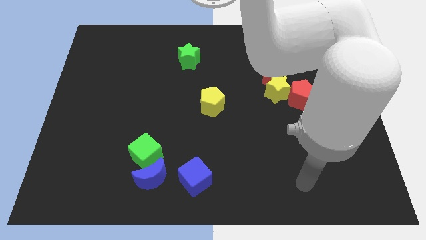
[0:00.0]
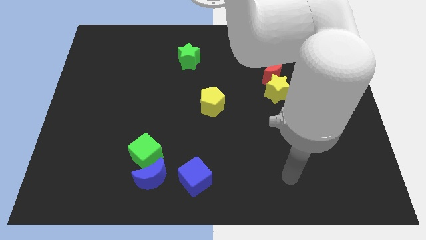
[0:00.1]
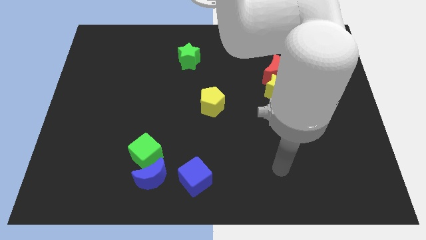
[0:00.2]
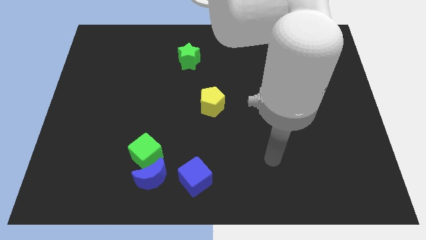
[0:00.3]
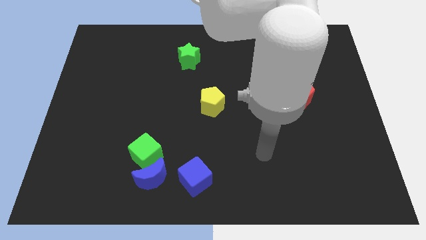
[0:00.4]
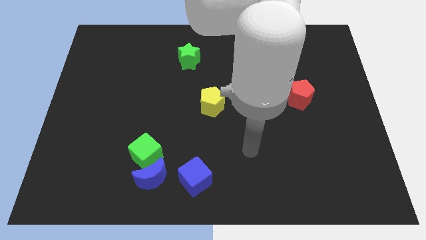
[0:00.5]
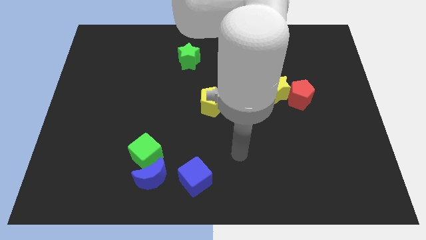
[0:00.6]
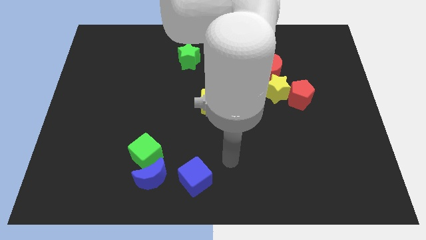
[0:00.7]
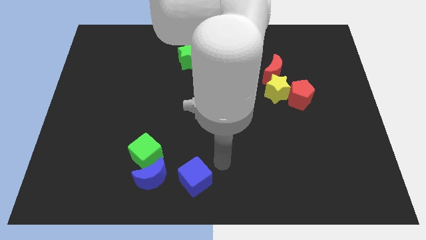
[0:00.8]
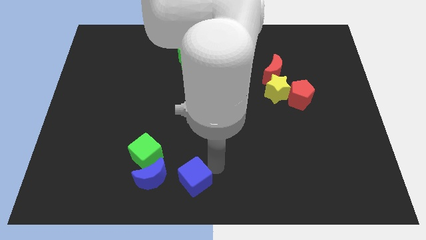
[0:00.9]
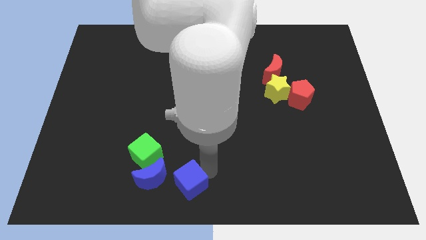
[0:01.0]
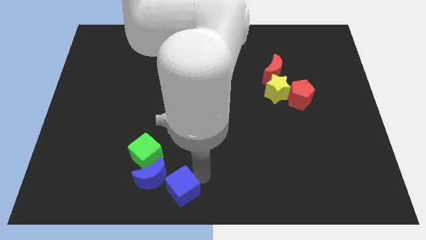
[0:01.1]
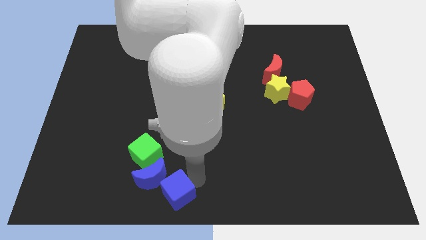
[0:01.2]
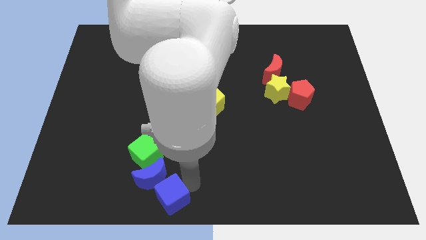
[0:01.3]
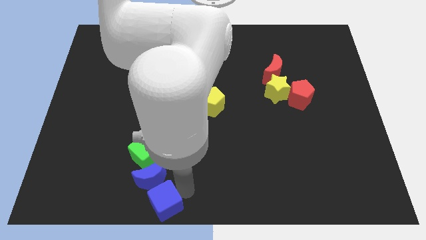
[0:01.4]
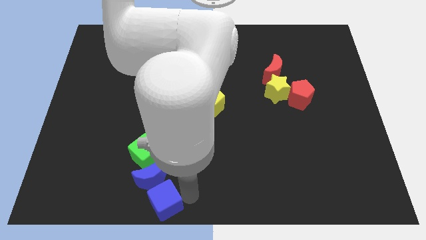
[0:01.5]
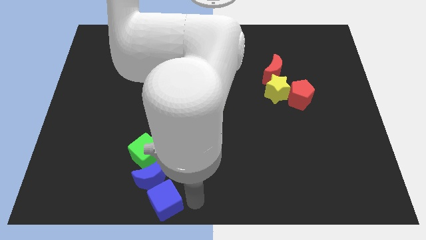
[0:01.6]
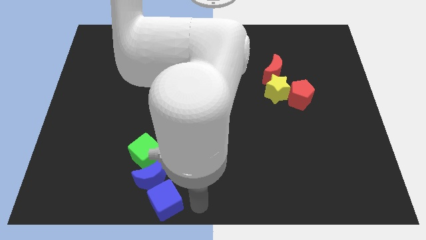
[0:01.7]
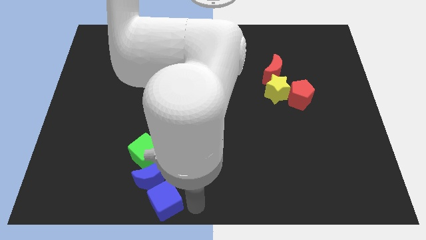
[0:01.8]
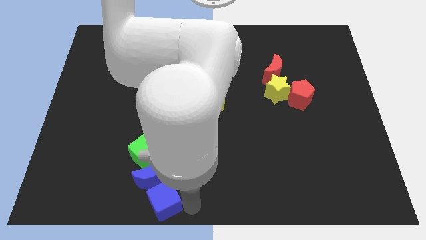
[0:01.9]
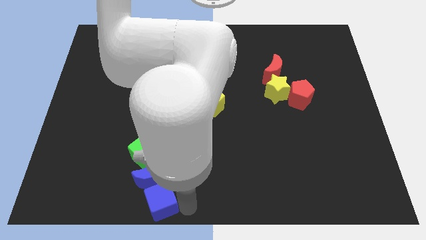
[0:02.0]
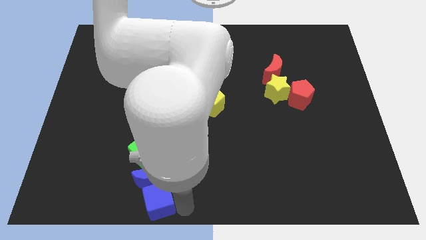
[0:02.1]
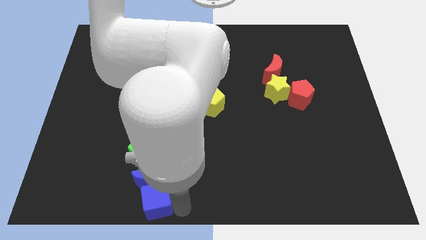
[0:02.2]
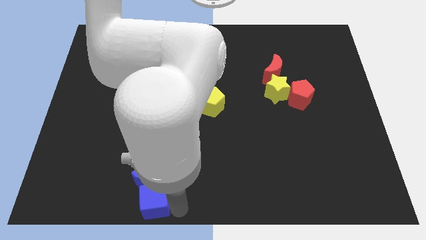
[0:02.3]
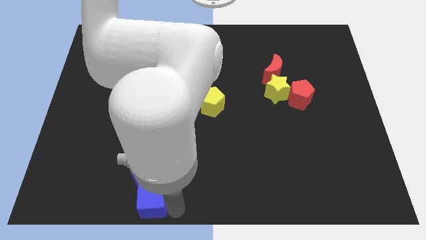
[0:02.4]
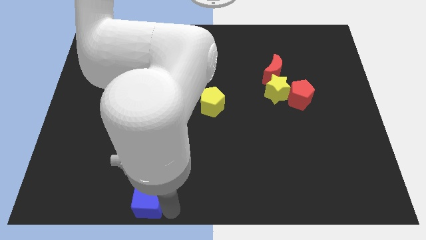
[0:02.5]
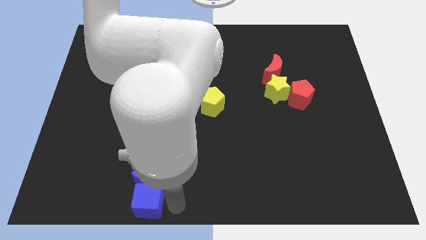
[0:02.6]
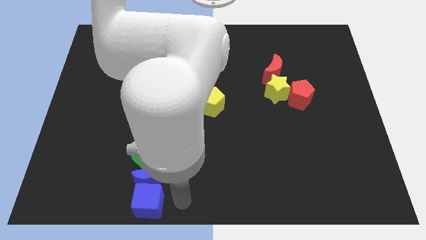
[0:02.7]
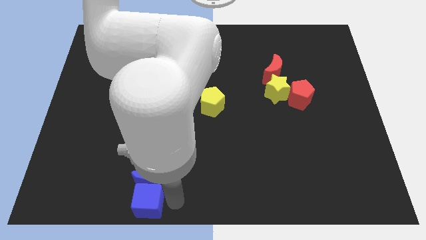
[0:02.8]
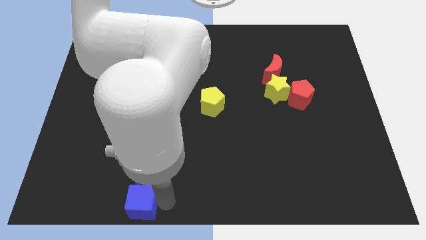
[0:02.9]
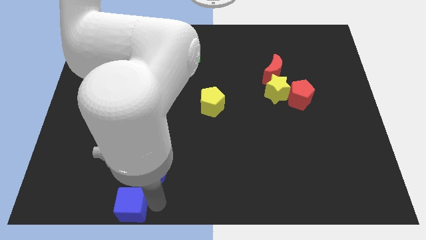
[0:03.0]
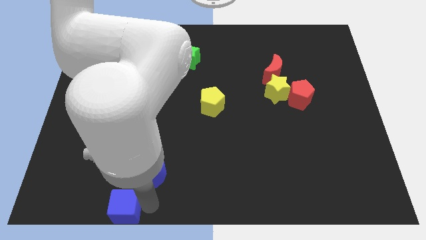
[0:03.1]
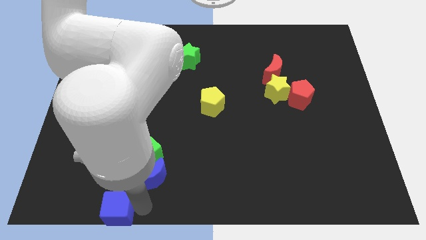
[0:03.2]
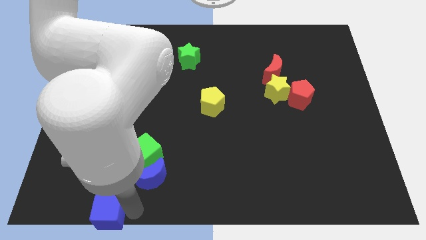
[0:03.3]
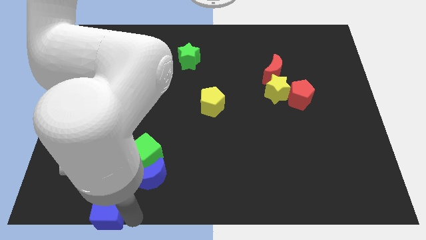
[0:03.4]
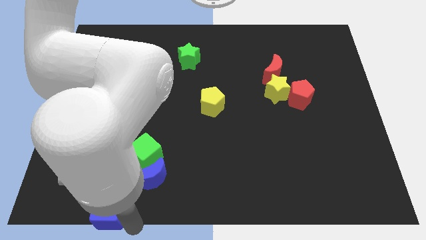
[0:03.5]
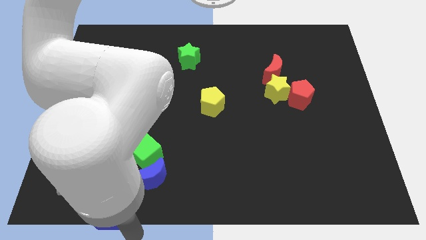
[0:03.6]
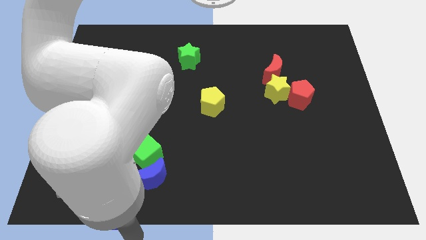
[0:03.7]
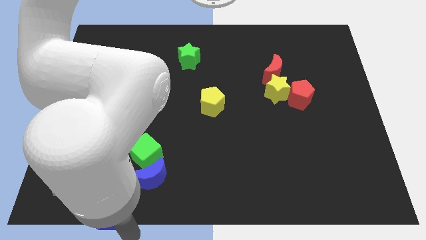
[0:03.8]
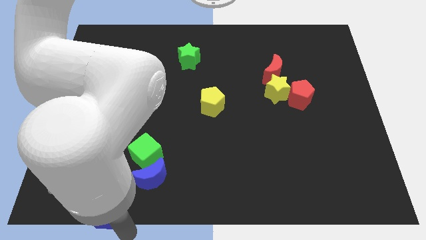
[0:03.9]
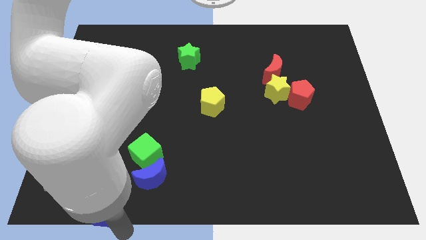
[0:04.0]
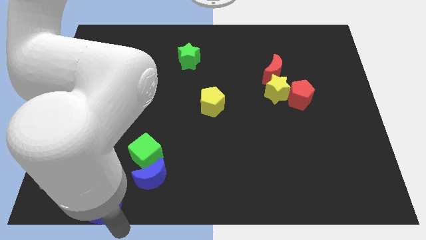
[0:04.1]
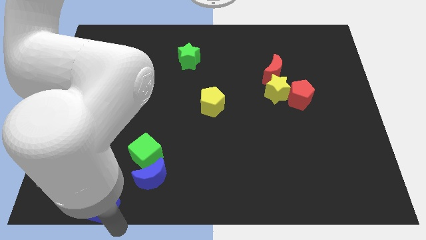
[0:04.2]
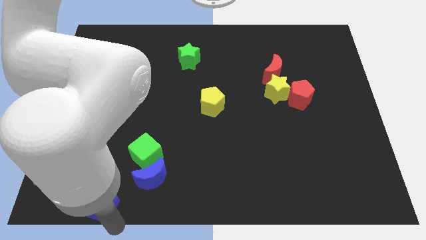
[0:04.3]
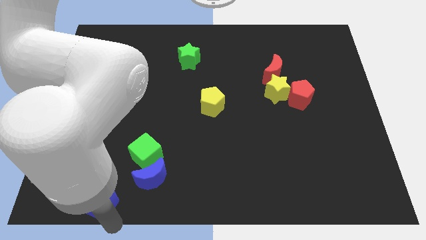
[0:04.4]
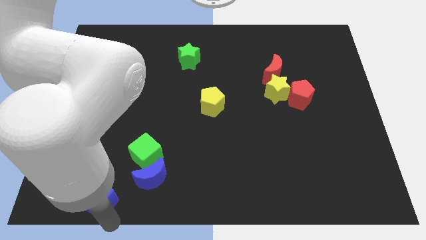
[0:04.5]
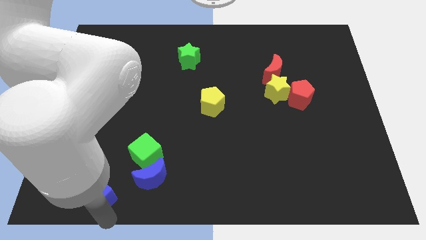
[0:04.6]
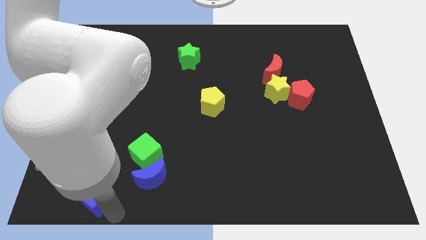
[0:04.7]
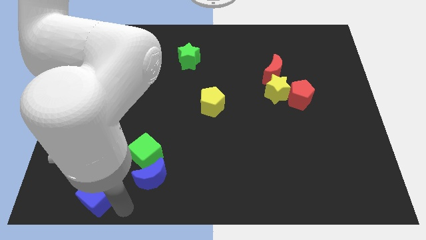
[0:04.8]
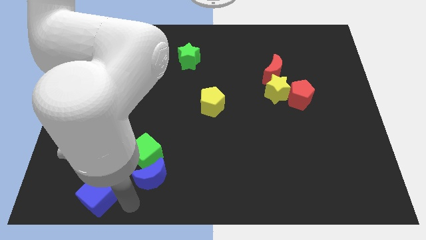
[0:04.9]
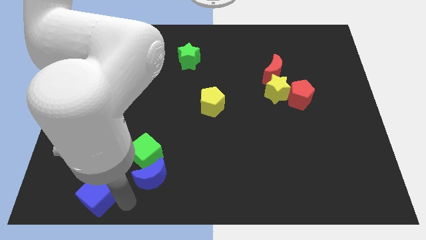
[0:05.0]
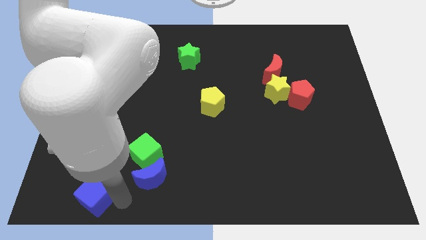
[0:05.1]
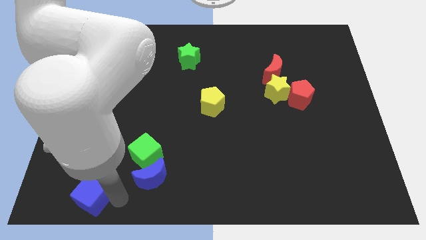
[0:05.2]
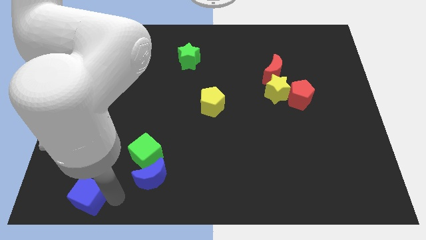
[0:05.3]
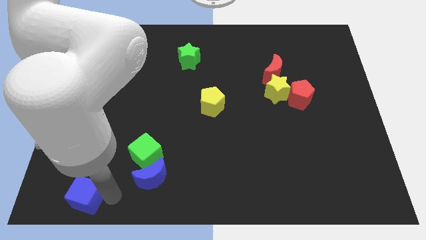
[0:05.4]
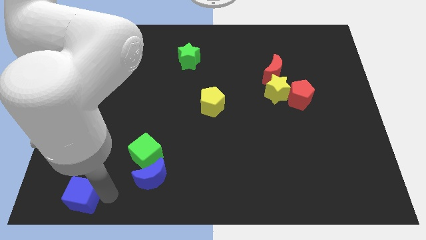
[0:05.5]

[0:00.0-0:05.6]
slide the blue cube to the bottom left corner
